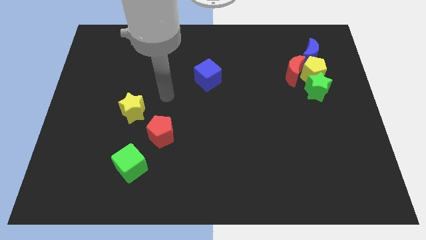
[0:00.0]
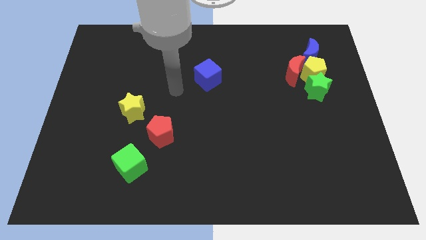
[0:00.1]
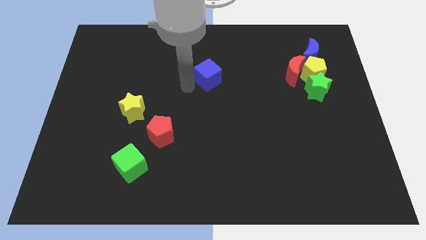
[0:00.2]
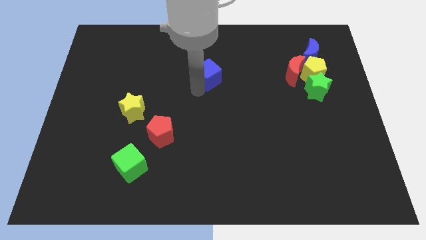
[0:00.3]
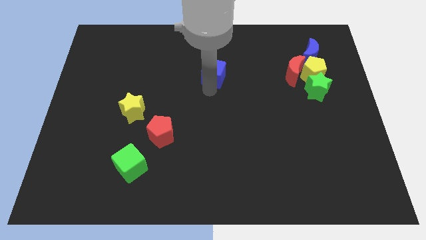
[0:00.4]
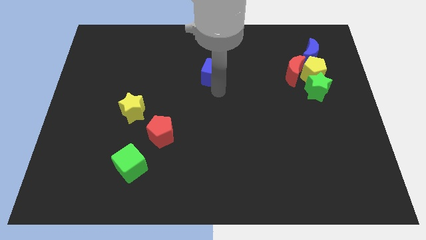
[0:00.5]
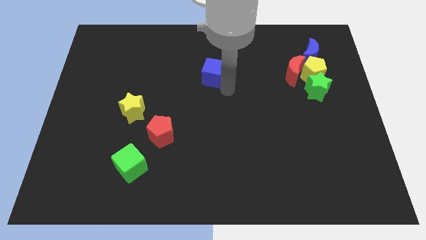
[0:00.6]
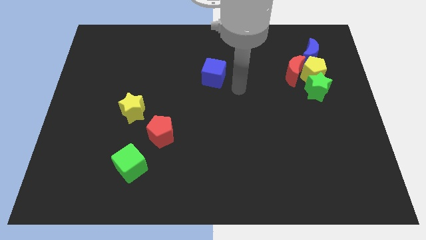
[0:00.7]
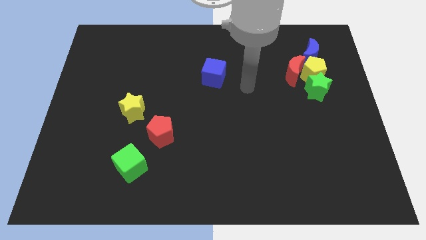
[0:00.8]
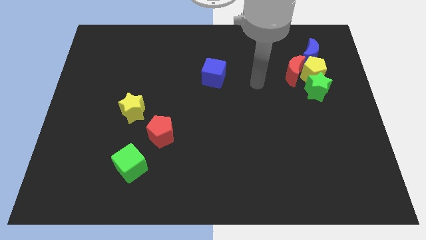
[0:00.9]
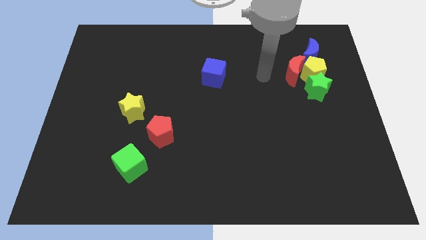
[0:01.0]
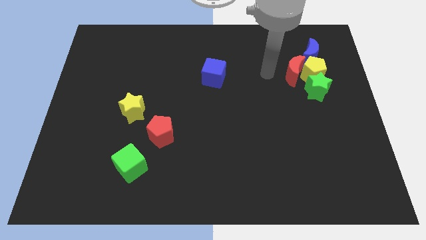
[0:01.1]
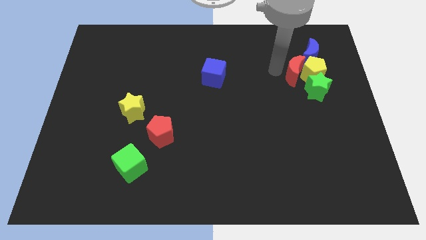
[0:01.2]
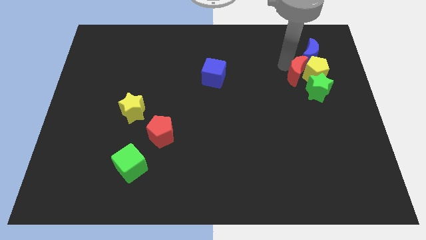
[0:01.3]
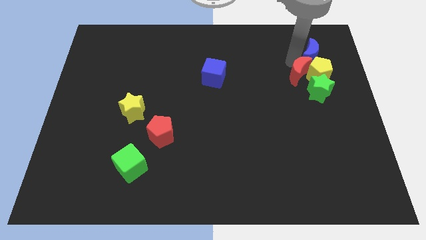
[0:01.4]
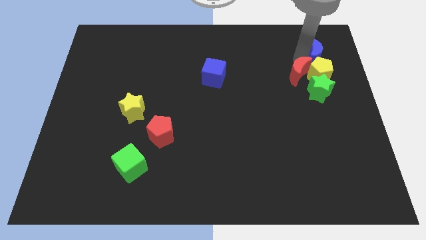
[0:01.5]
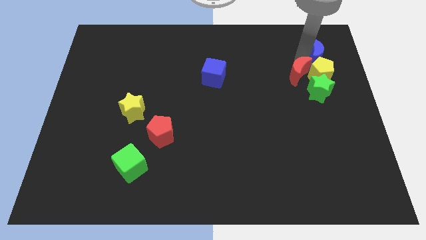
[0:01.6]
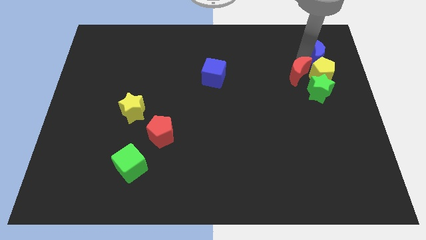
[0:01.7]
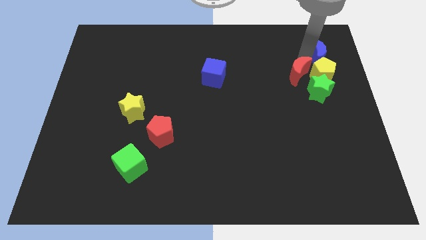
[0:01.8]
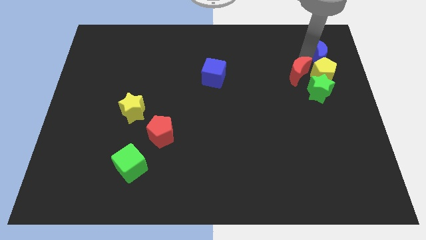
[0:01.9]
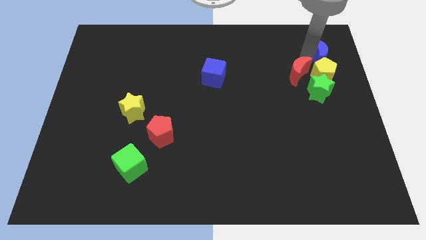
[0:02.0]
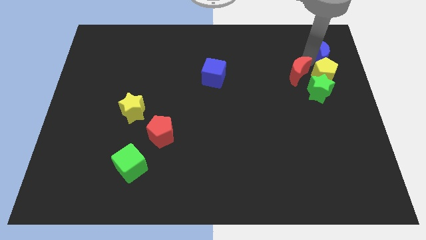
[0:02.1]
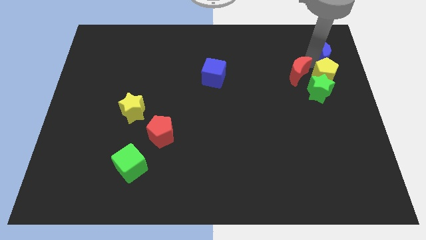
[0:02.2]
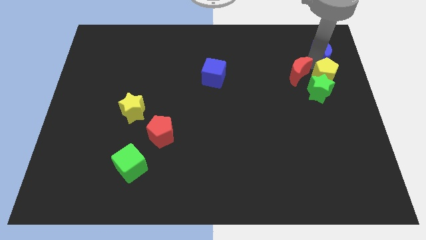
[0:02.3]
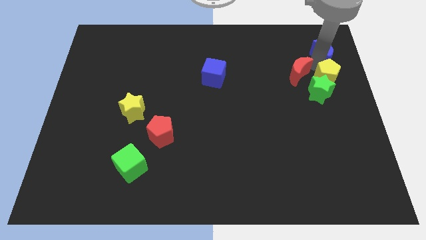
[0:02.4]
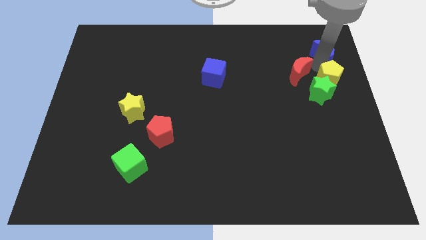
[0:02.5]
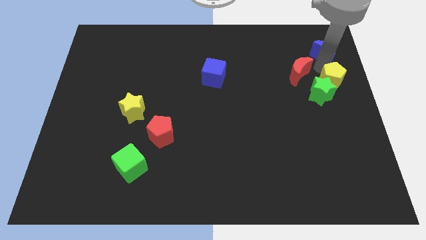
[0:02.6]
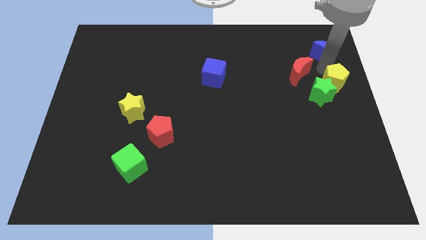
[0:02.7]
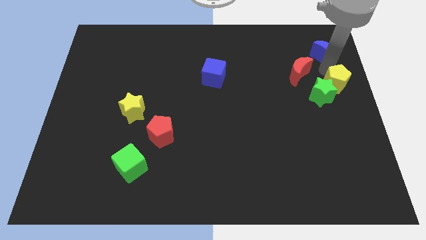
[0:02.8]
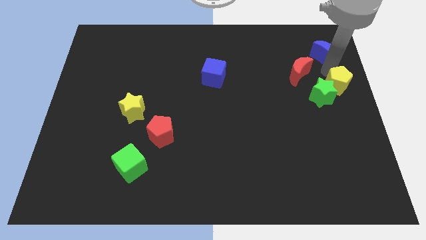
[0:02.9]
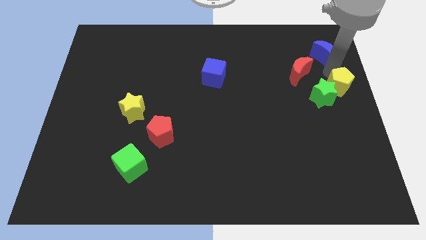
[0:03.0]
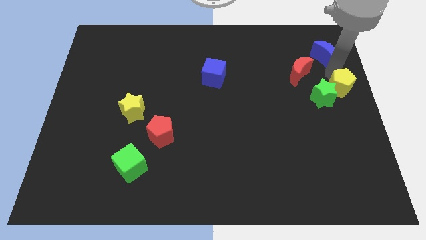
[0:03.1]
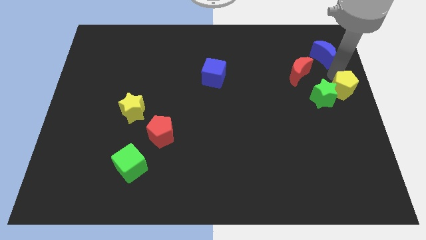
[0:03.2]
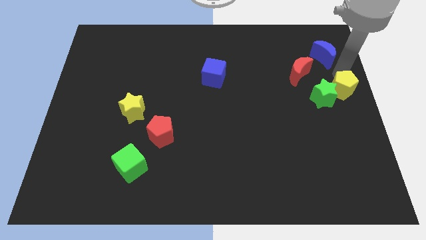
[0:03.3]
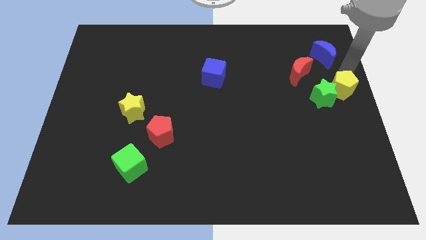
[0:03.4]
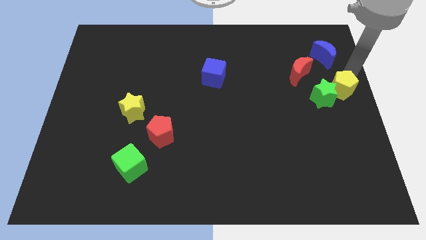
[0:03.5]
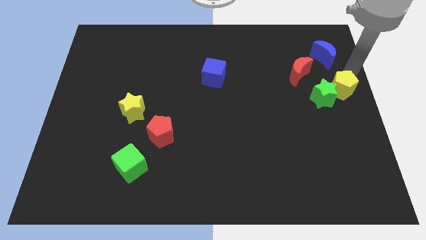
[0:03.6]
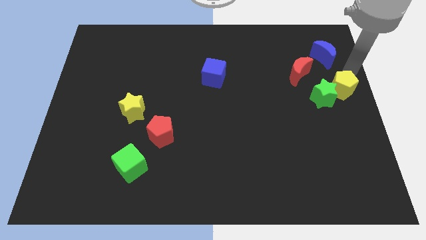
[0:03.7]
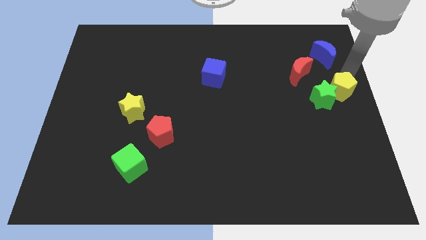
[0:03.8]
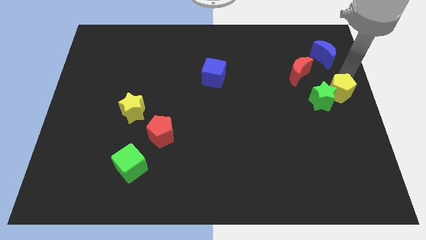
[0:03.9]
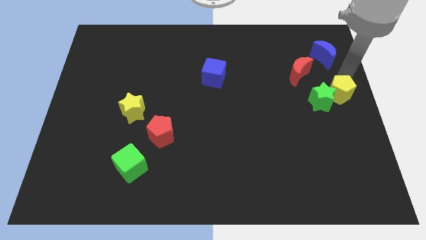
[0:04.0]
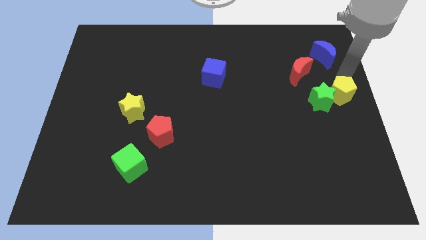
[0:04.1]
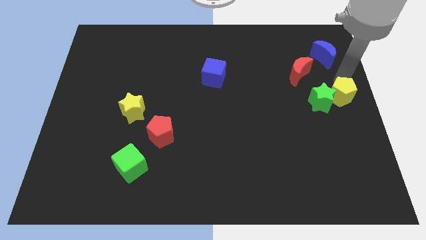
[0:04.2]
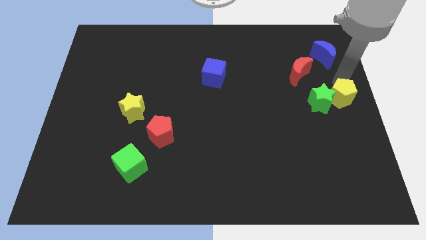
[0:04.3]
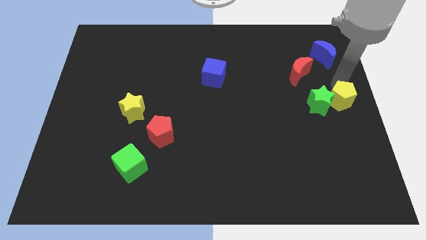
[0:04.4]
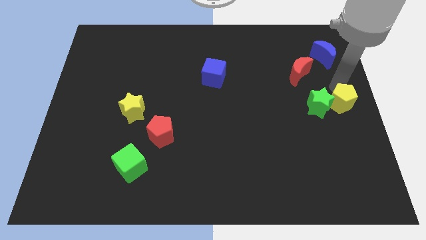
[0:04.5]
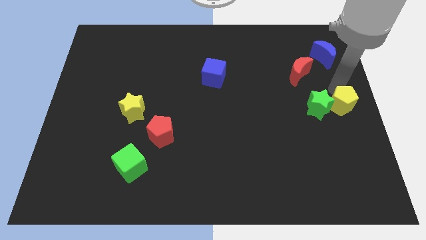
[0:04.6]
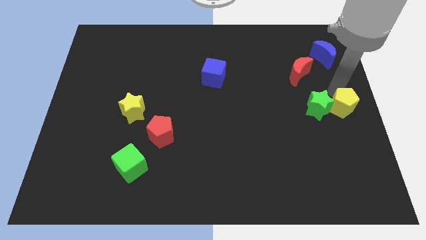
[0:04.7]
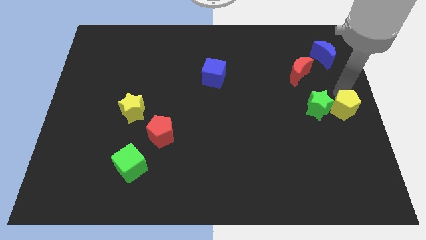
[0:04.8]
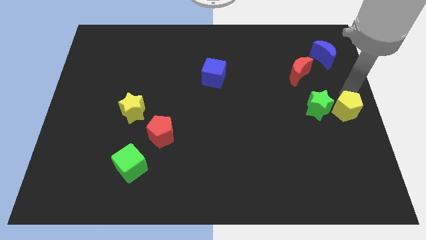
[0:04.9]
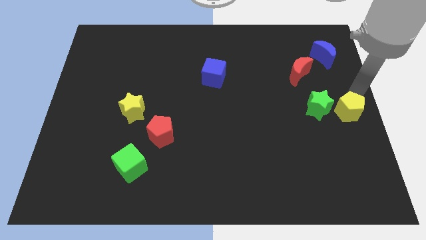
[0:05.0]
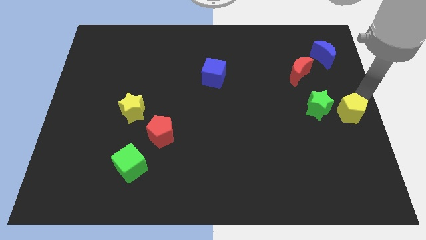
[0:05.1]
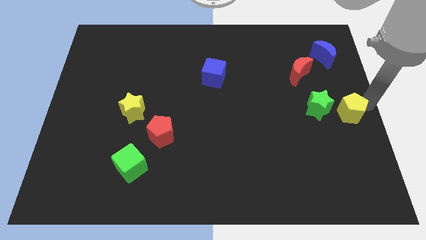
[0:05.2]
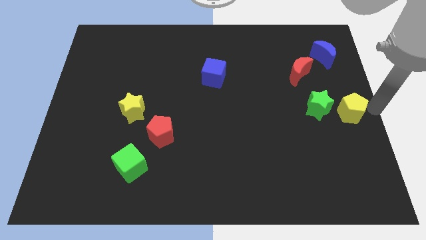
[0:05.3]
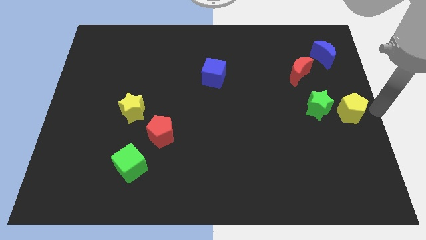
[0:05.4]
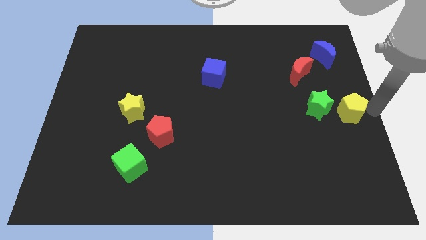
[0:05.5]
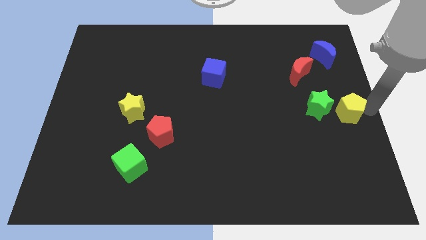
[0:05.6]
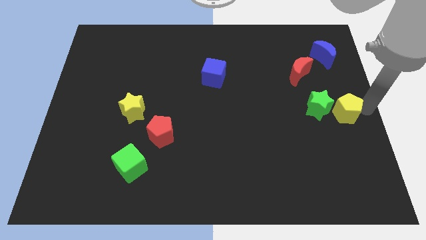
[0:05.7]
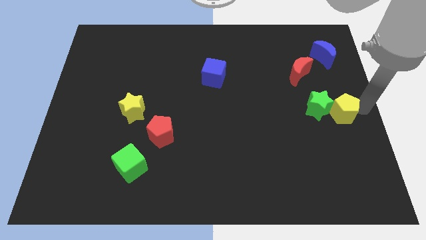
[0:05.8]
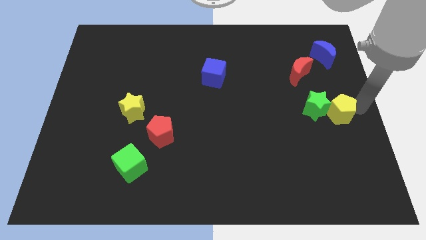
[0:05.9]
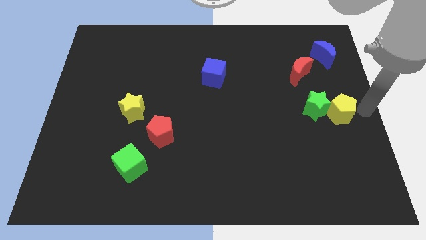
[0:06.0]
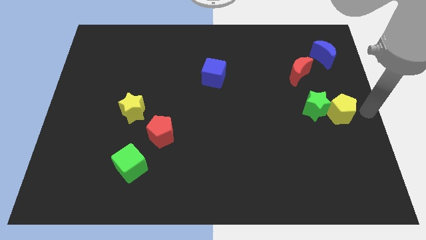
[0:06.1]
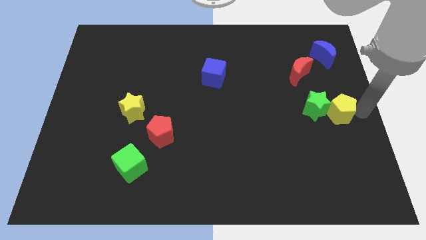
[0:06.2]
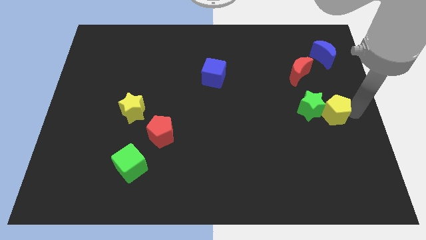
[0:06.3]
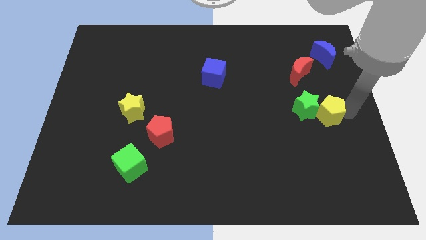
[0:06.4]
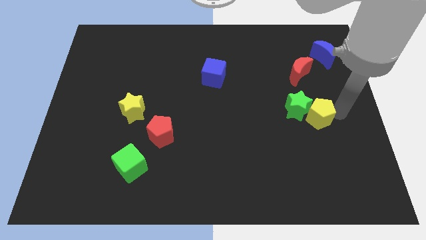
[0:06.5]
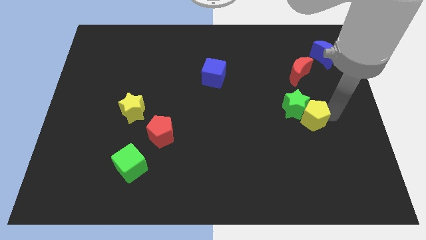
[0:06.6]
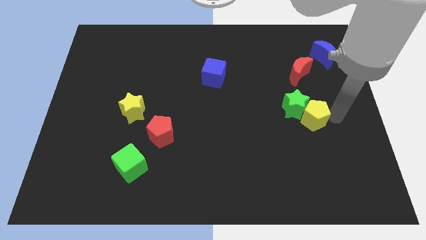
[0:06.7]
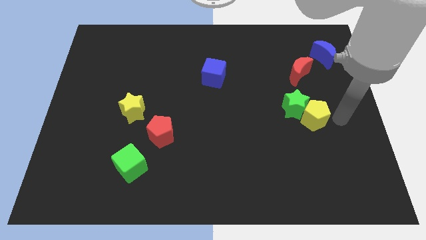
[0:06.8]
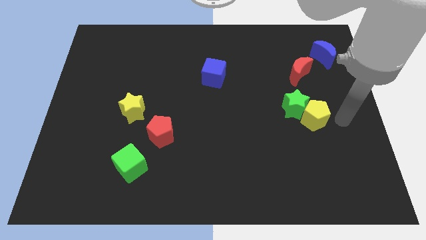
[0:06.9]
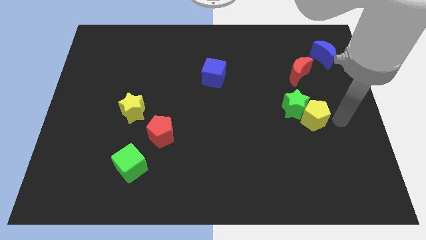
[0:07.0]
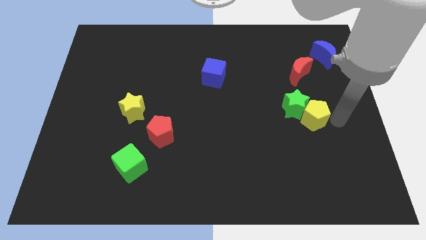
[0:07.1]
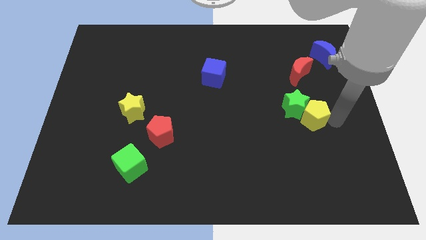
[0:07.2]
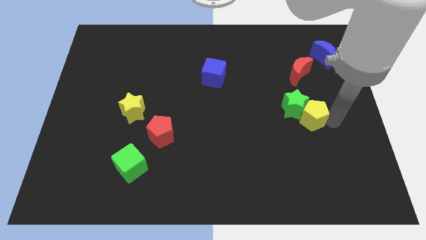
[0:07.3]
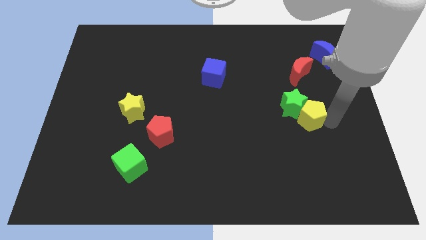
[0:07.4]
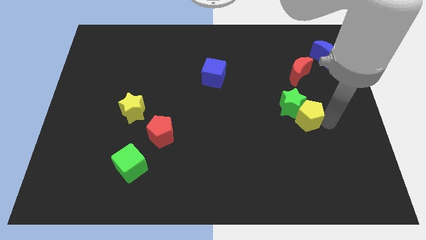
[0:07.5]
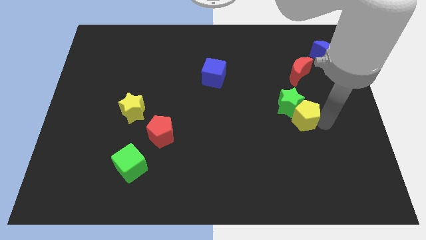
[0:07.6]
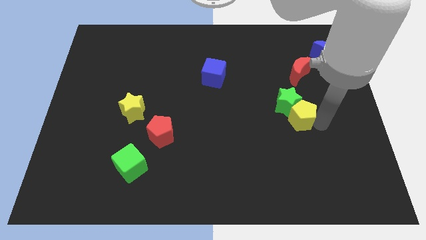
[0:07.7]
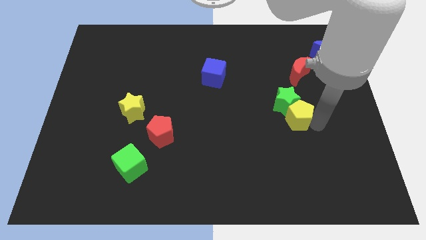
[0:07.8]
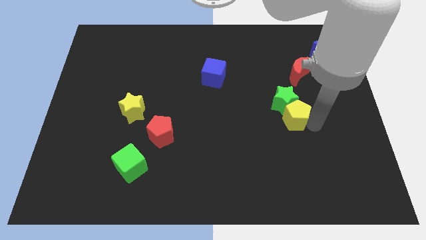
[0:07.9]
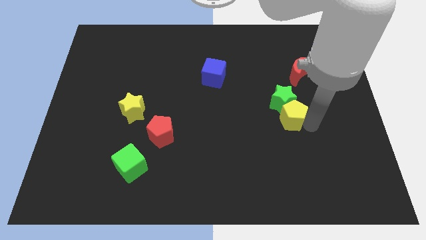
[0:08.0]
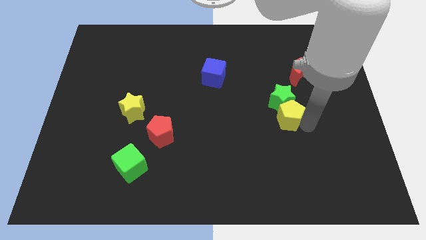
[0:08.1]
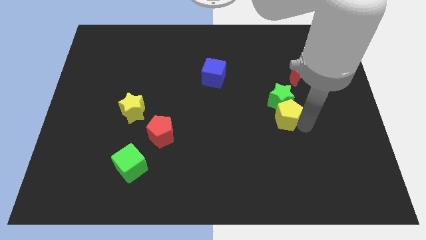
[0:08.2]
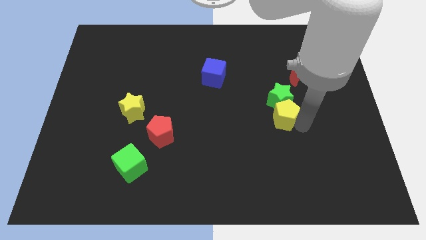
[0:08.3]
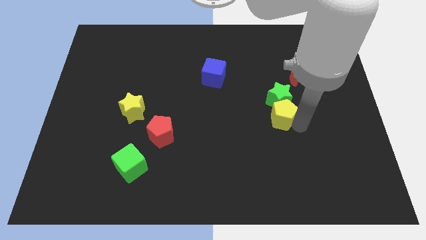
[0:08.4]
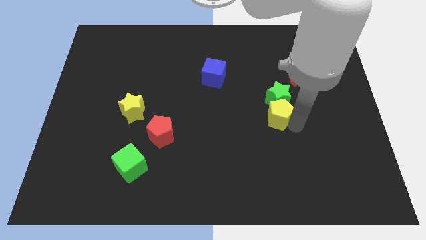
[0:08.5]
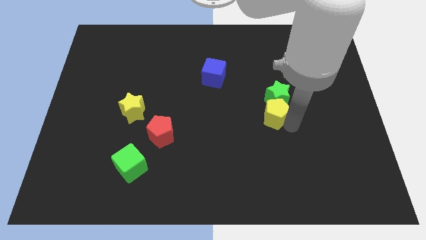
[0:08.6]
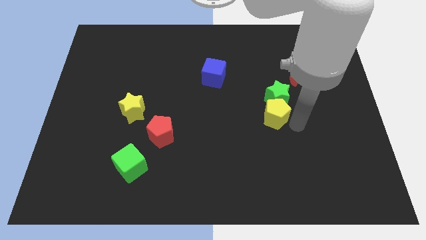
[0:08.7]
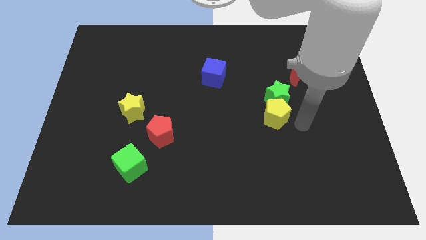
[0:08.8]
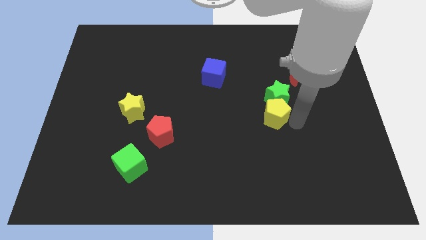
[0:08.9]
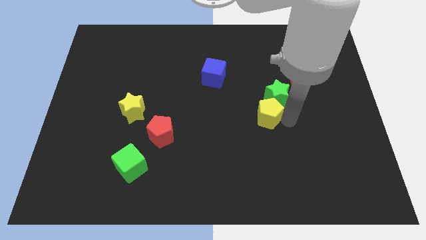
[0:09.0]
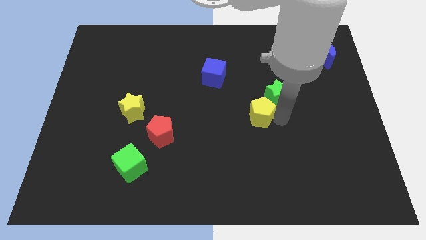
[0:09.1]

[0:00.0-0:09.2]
move the yellow pentagon to the center of the board
